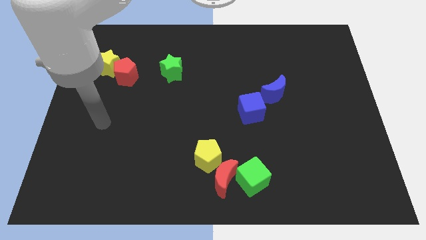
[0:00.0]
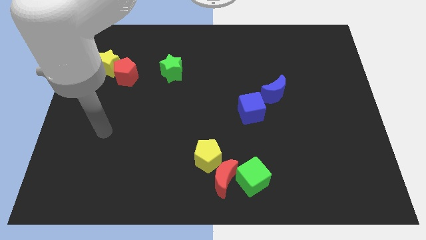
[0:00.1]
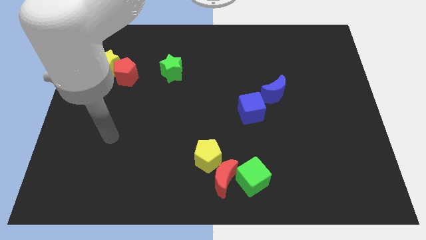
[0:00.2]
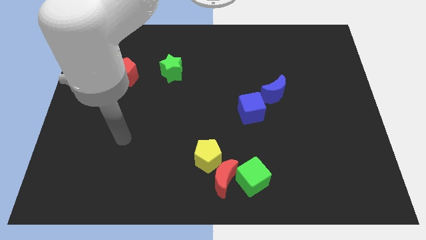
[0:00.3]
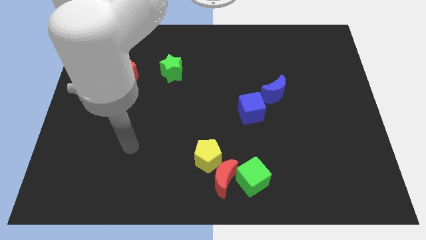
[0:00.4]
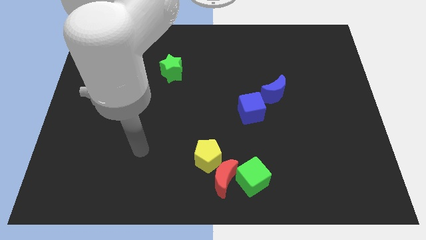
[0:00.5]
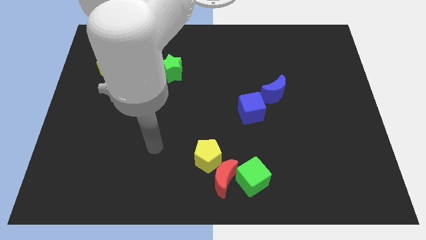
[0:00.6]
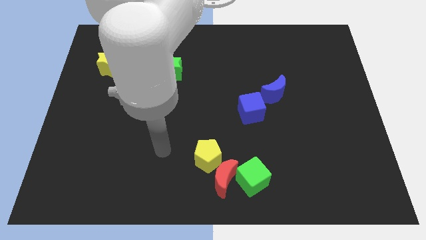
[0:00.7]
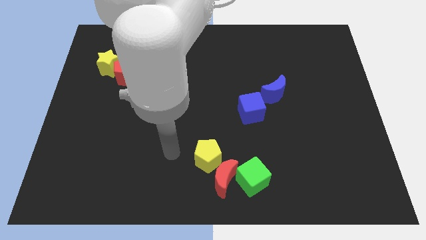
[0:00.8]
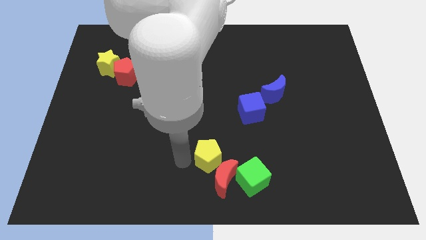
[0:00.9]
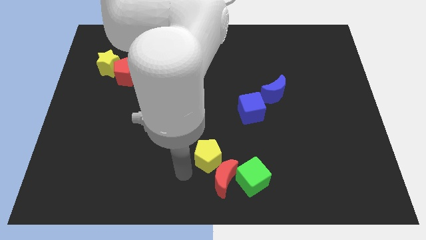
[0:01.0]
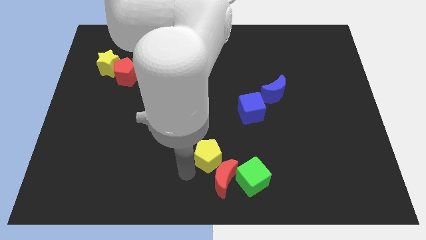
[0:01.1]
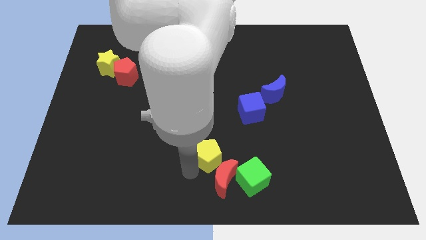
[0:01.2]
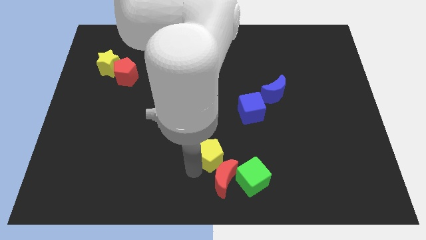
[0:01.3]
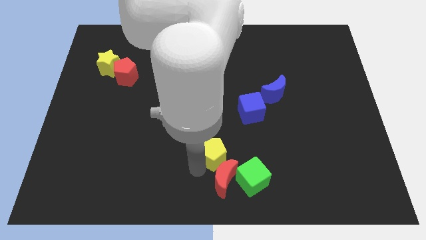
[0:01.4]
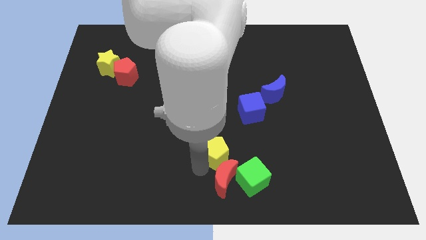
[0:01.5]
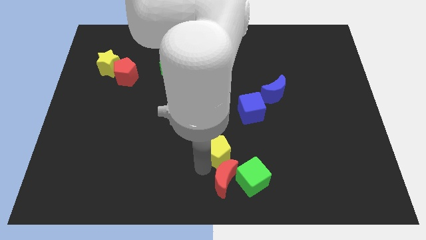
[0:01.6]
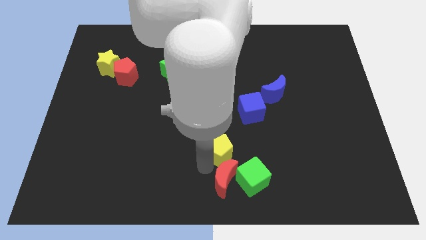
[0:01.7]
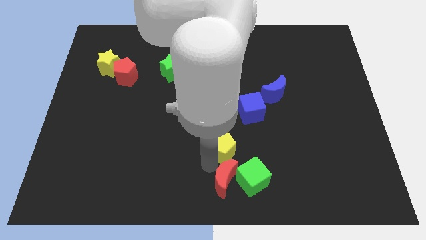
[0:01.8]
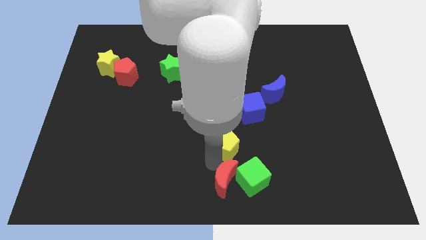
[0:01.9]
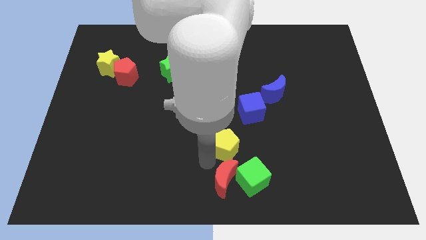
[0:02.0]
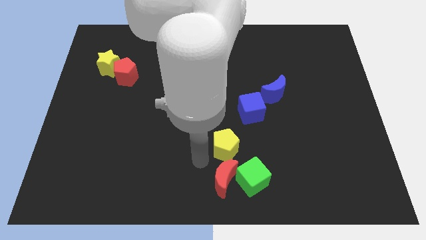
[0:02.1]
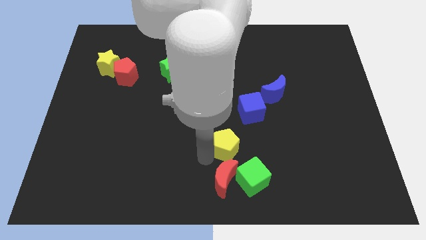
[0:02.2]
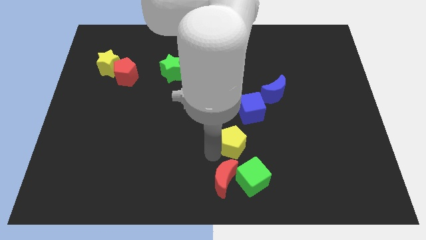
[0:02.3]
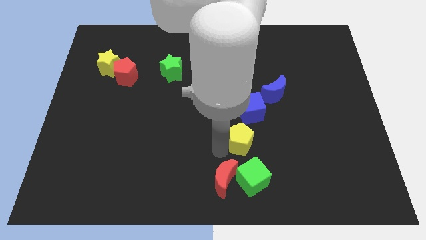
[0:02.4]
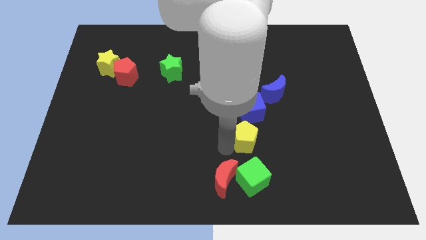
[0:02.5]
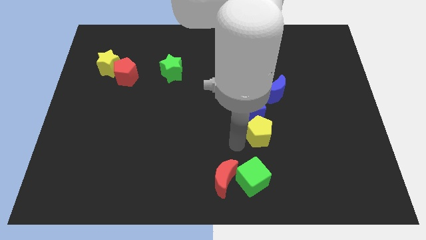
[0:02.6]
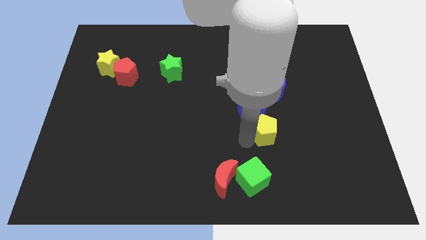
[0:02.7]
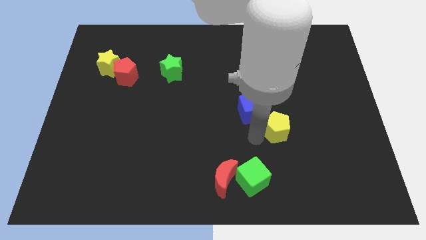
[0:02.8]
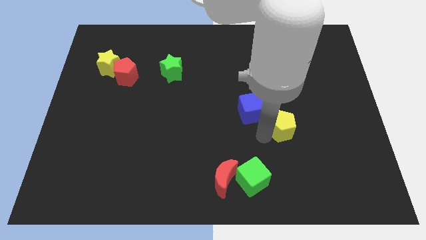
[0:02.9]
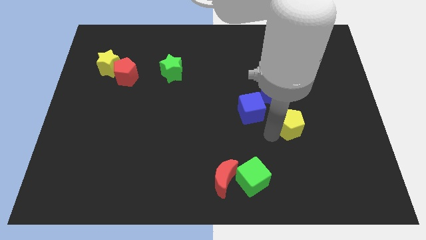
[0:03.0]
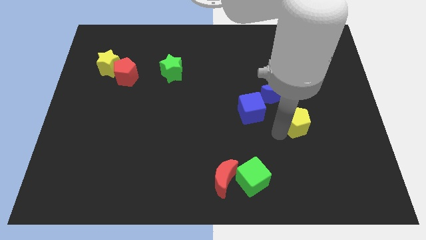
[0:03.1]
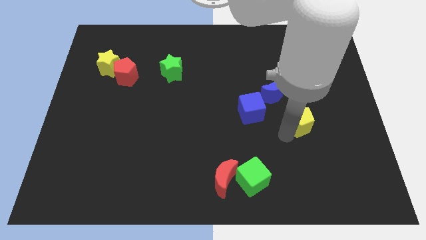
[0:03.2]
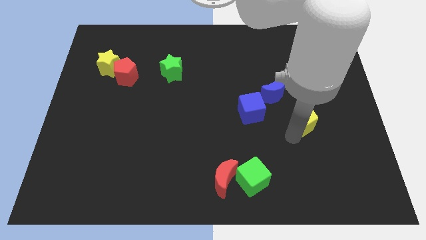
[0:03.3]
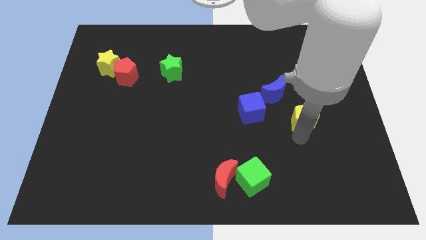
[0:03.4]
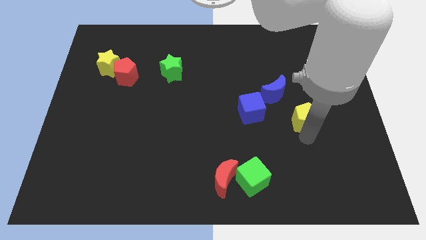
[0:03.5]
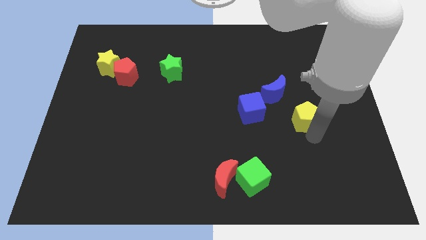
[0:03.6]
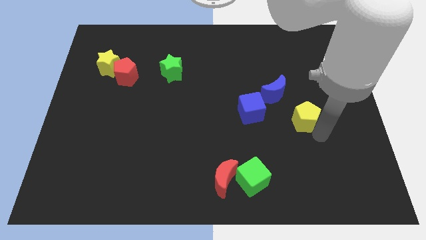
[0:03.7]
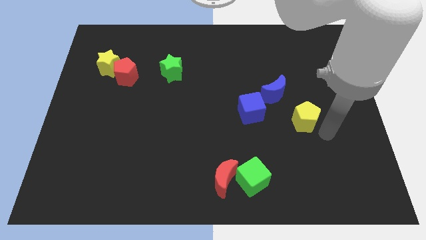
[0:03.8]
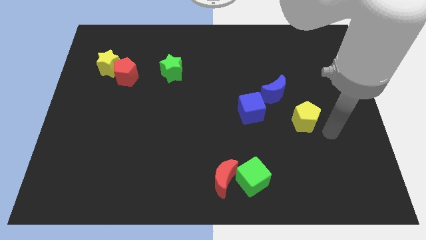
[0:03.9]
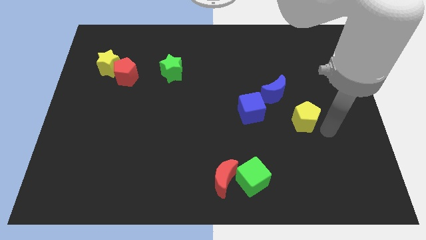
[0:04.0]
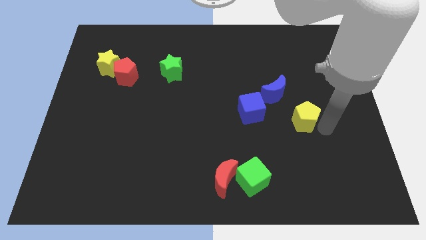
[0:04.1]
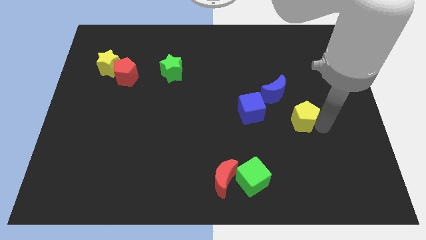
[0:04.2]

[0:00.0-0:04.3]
slide the yellow pentagon upwards and to the right

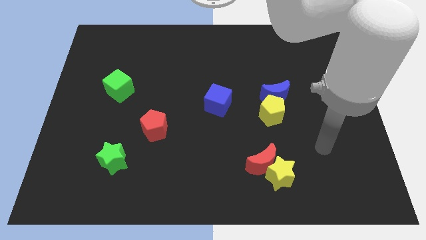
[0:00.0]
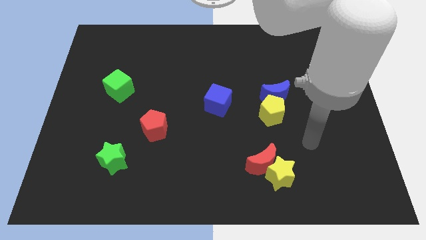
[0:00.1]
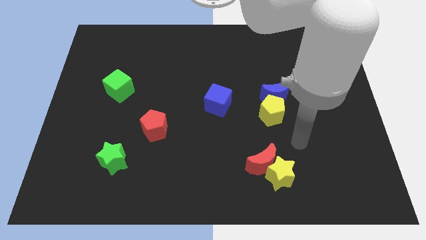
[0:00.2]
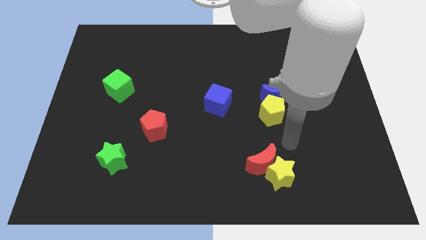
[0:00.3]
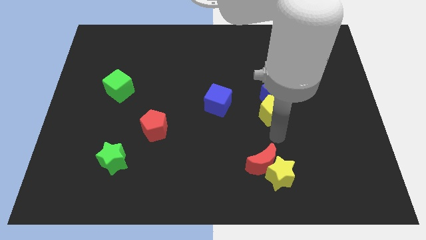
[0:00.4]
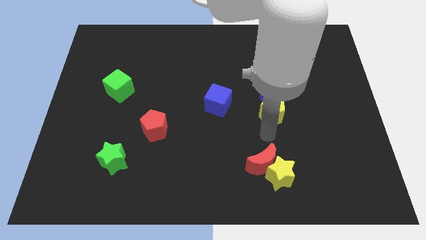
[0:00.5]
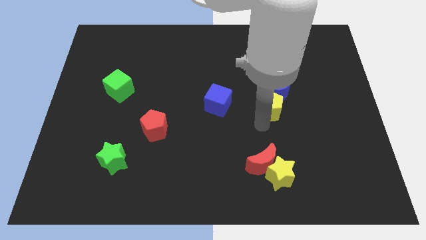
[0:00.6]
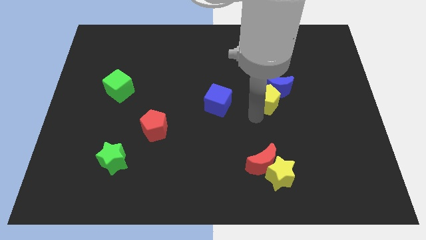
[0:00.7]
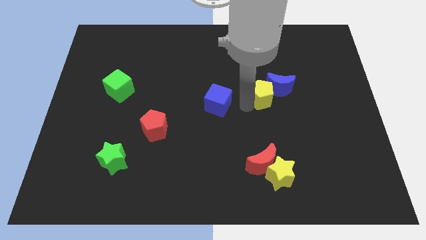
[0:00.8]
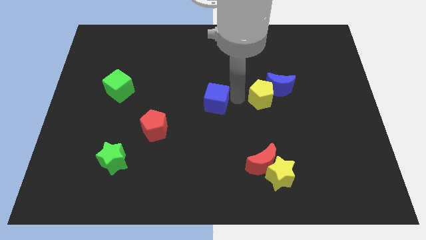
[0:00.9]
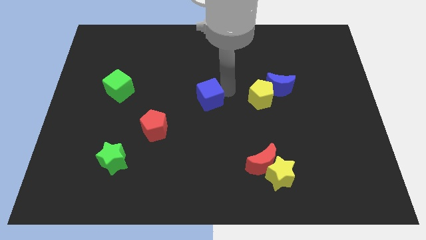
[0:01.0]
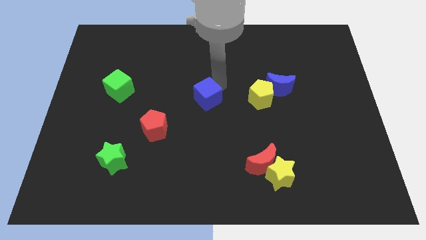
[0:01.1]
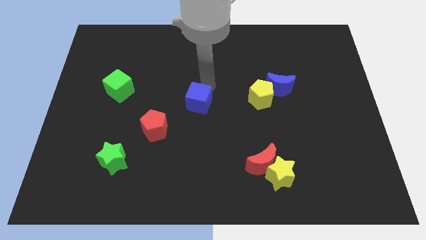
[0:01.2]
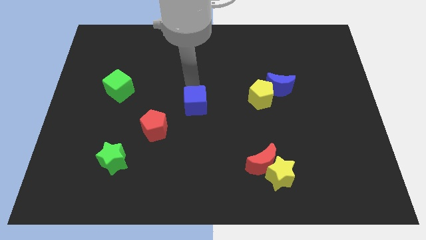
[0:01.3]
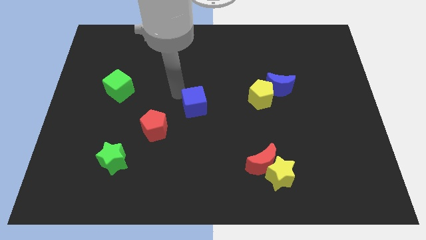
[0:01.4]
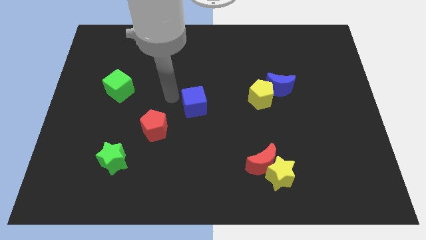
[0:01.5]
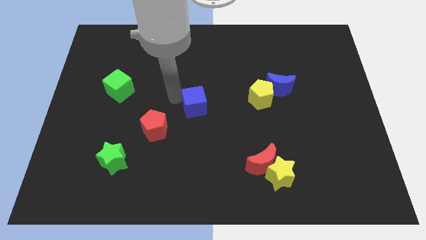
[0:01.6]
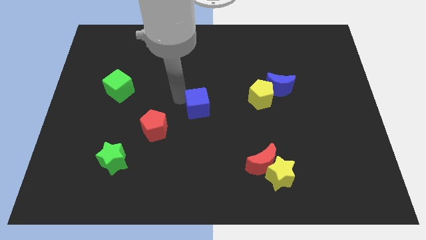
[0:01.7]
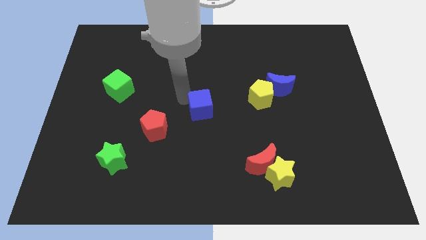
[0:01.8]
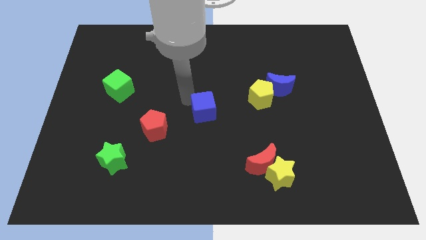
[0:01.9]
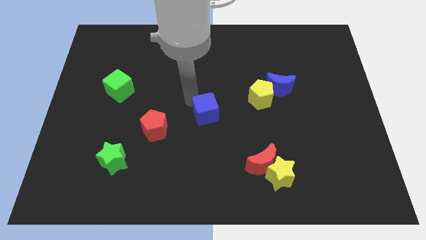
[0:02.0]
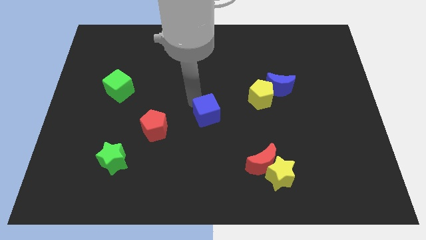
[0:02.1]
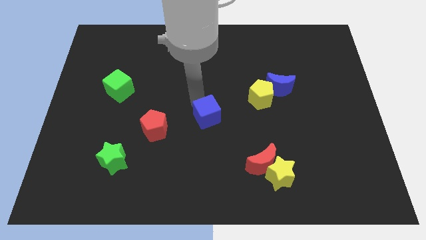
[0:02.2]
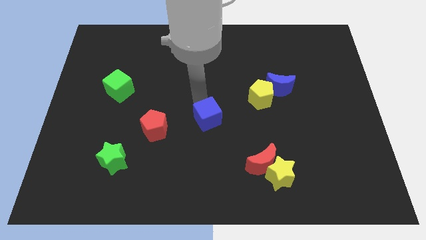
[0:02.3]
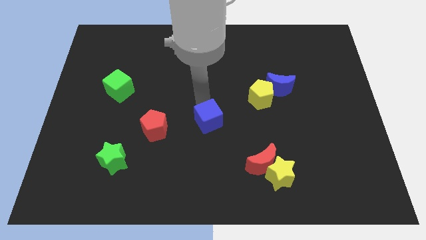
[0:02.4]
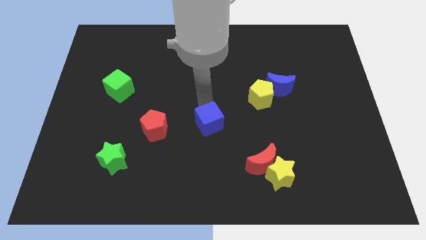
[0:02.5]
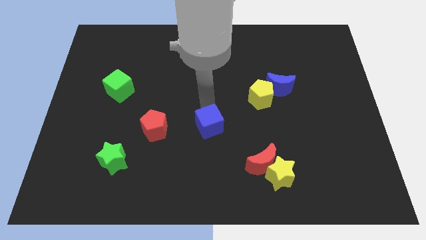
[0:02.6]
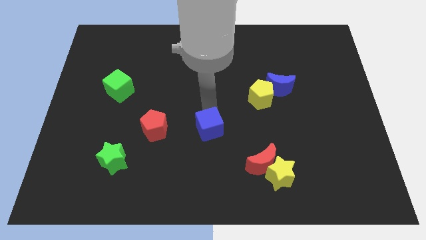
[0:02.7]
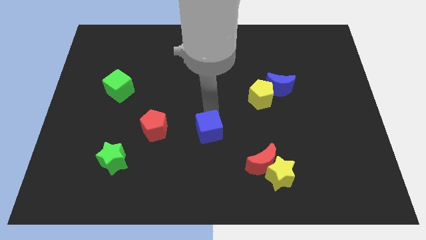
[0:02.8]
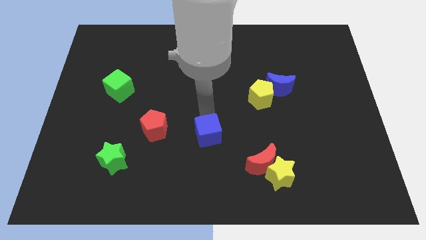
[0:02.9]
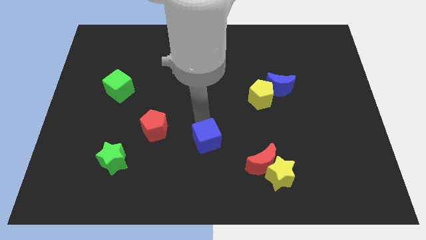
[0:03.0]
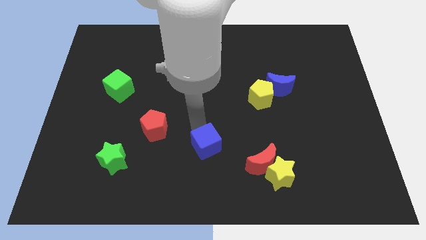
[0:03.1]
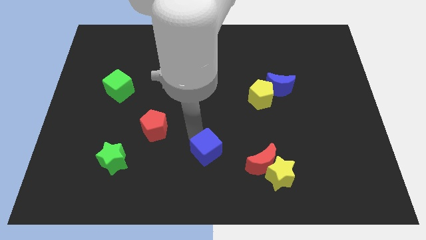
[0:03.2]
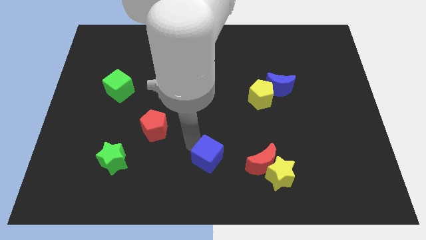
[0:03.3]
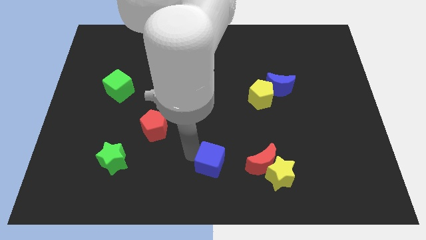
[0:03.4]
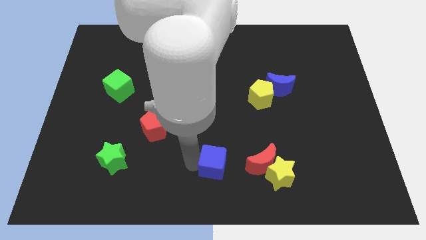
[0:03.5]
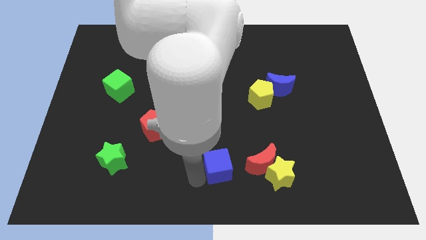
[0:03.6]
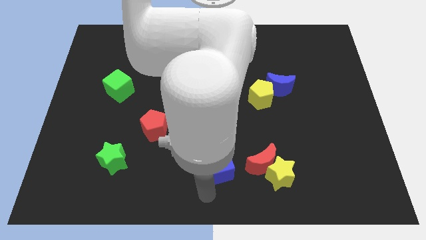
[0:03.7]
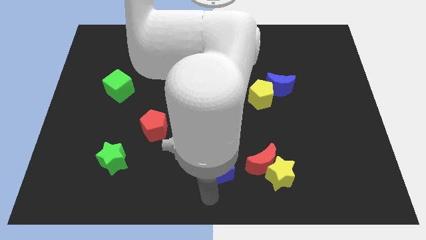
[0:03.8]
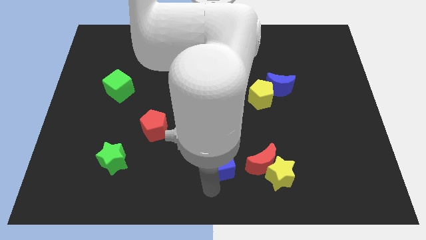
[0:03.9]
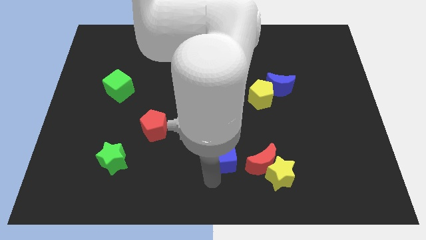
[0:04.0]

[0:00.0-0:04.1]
push the blue cube a little down and to the right
